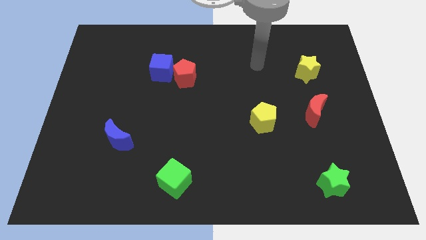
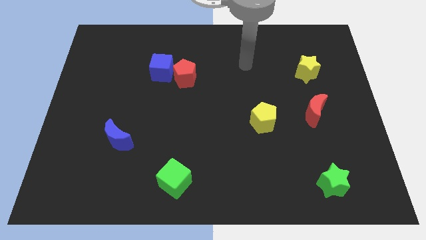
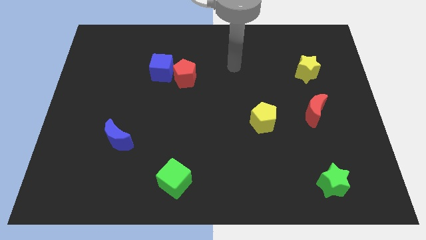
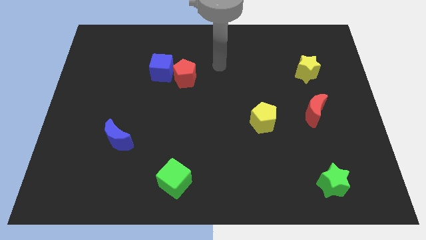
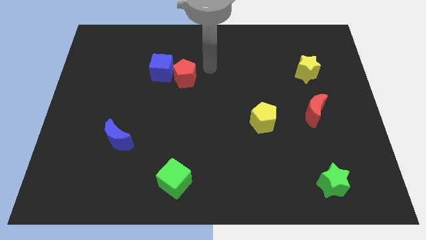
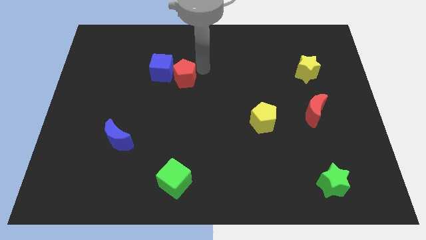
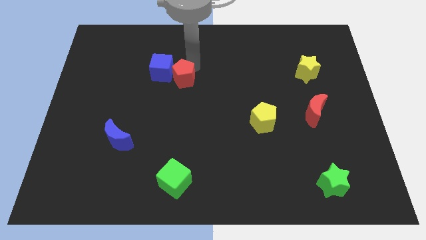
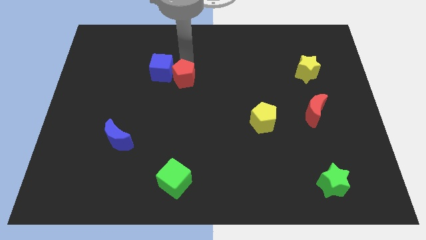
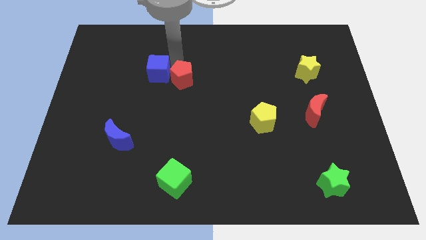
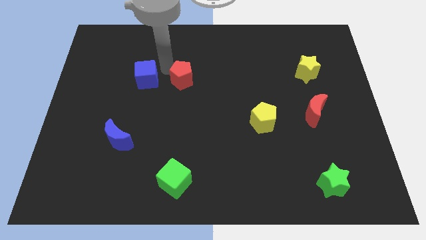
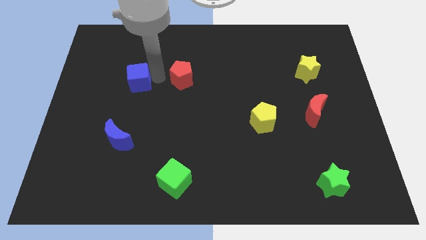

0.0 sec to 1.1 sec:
pull the red pentagon apart from the blue cube

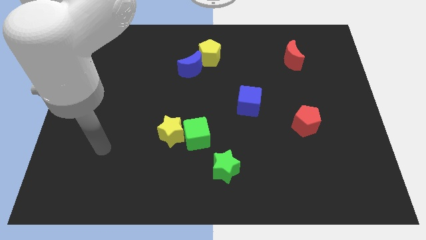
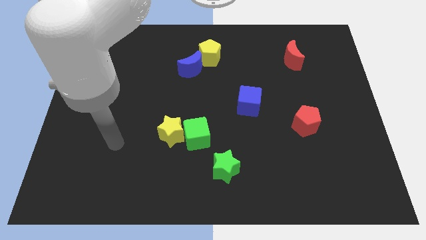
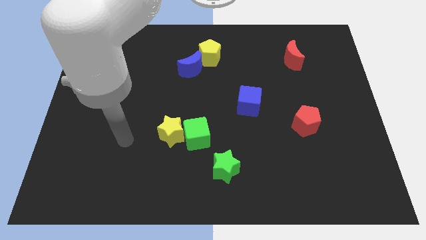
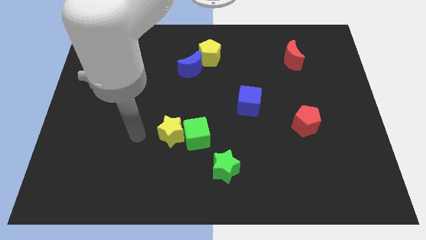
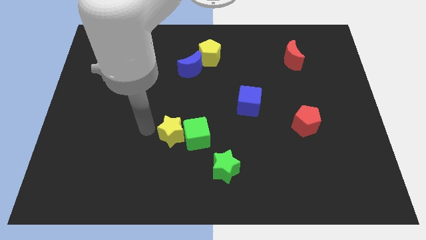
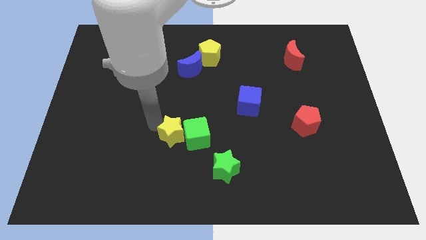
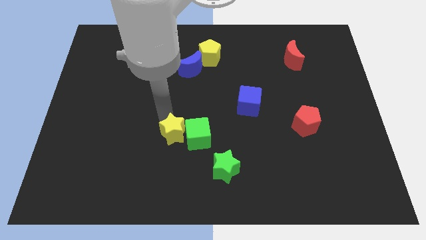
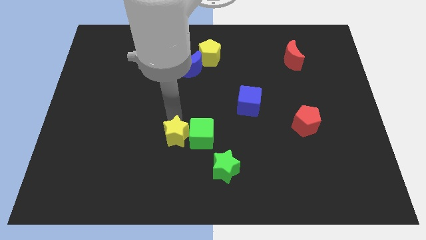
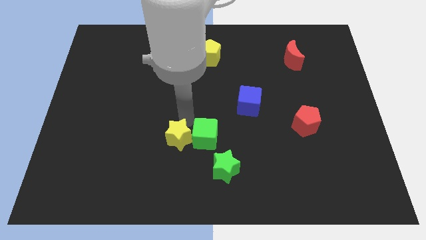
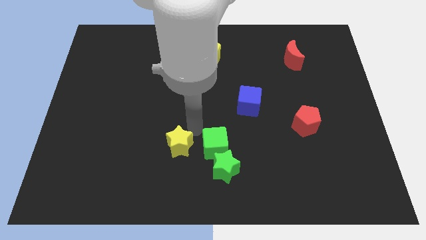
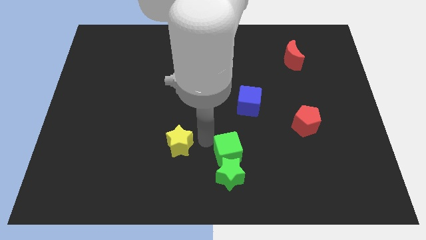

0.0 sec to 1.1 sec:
pull the yellow star apart from the green cube

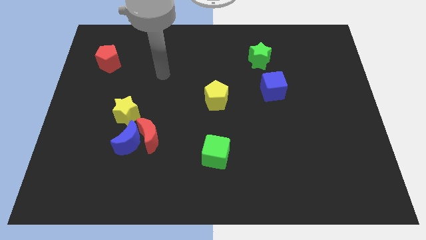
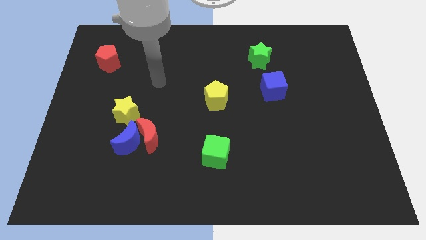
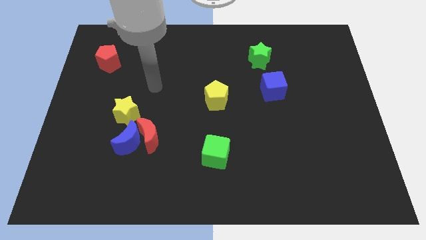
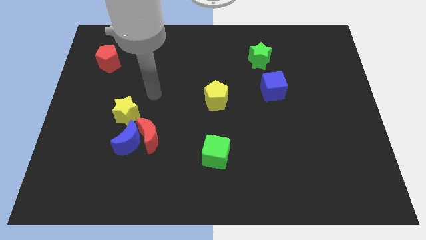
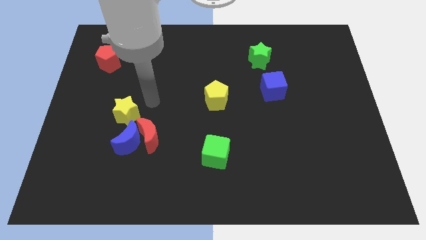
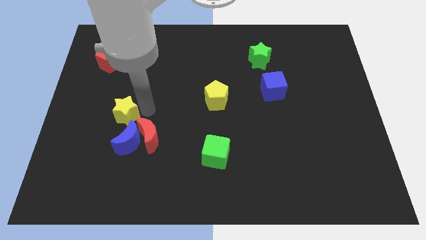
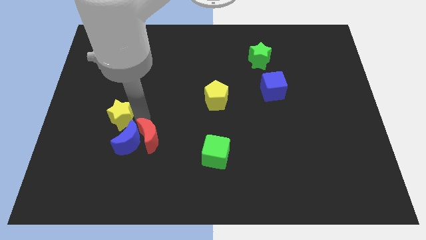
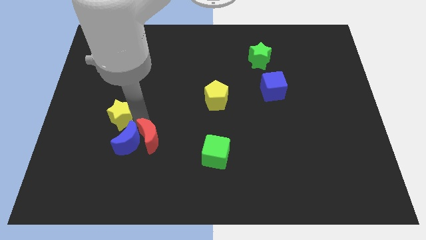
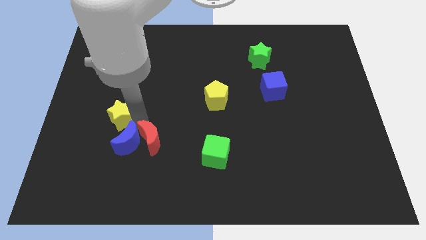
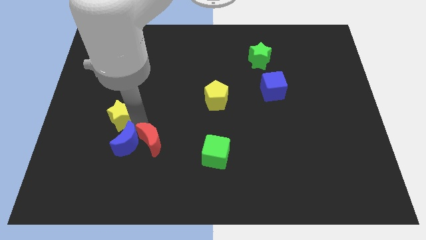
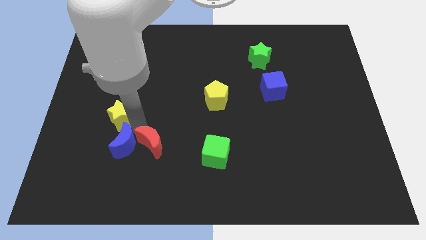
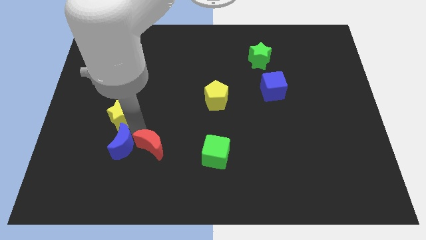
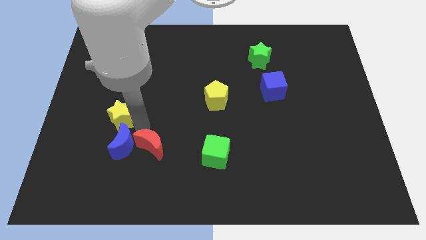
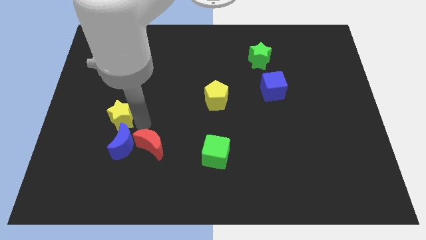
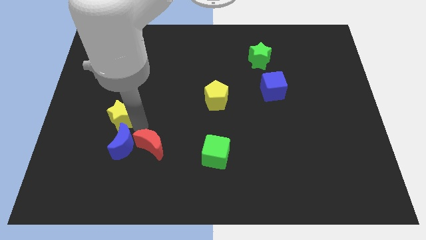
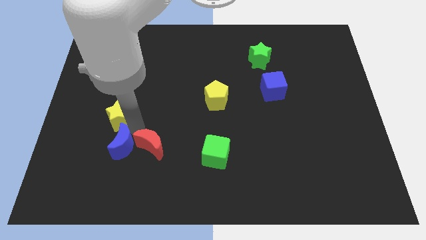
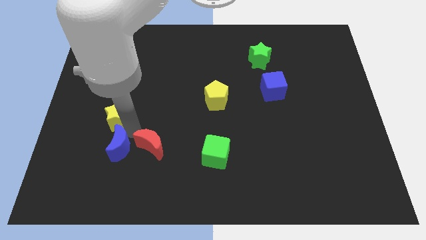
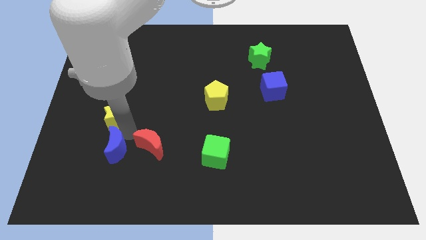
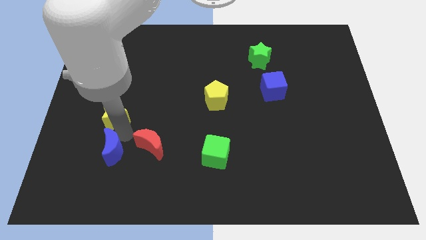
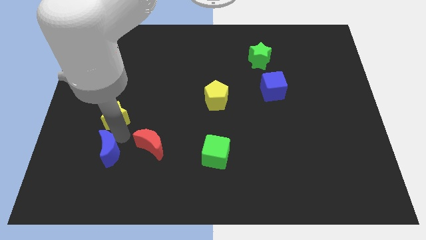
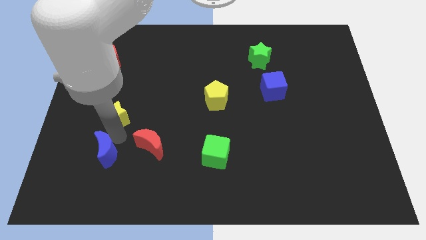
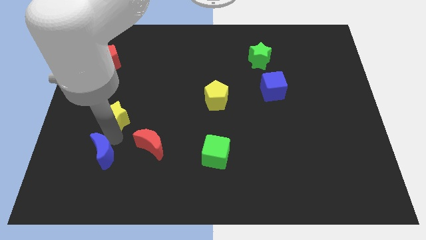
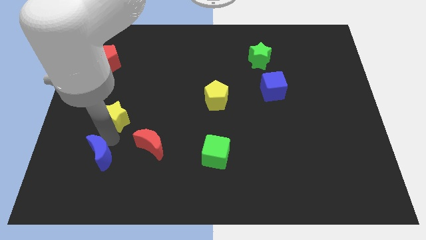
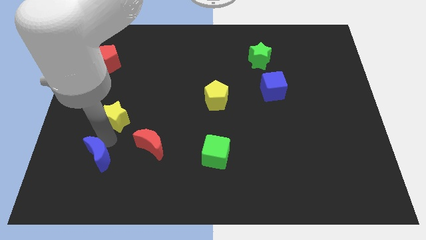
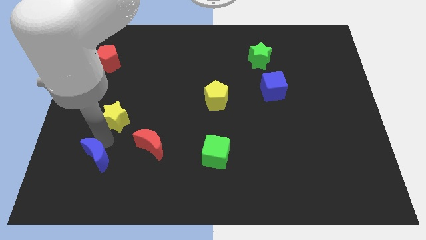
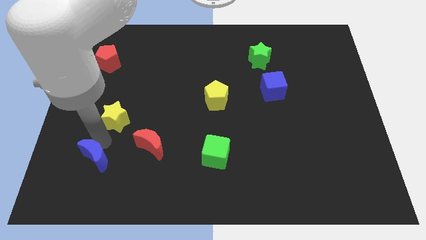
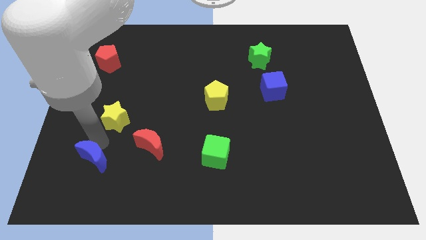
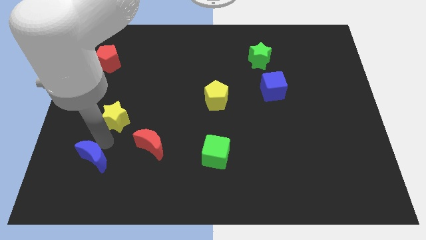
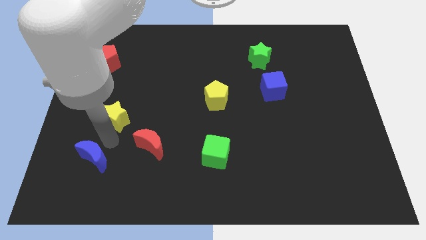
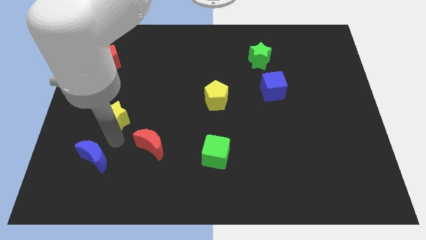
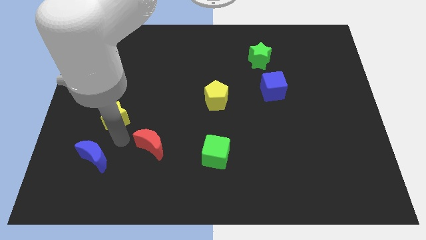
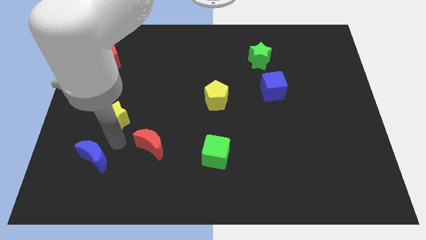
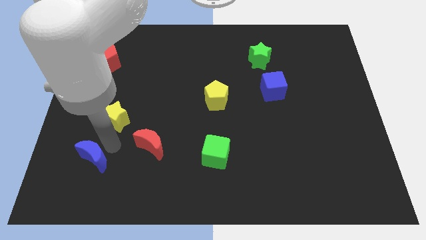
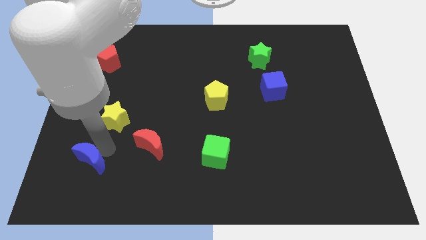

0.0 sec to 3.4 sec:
move the blue moon away from the red moon and yellow star

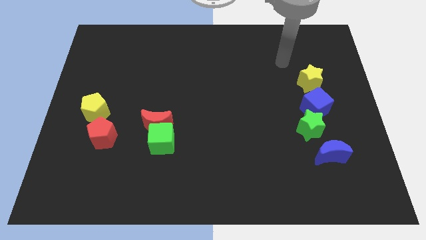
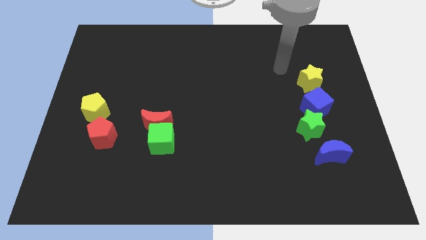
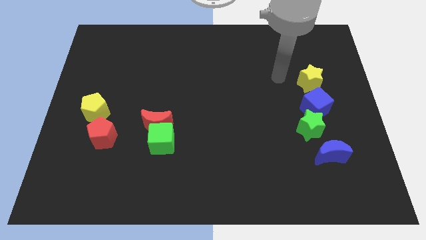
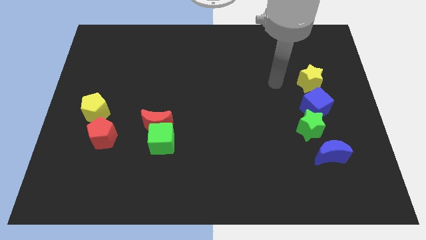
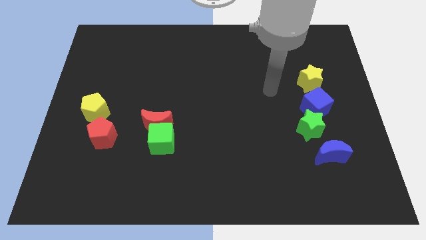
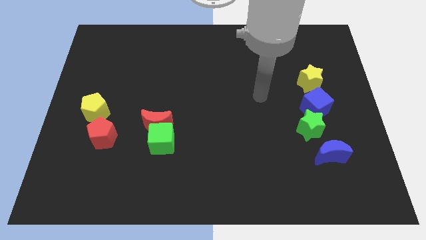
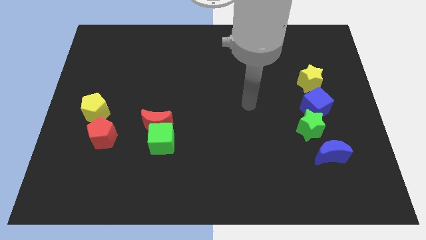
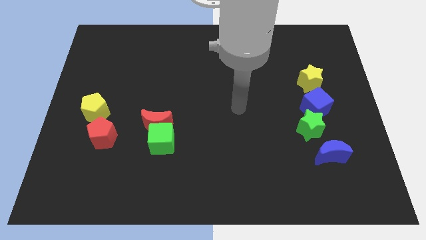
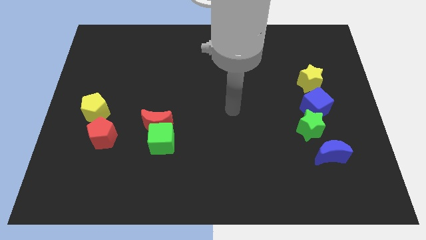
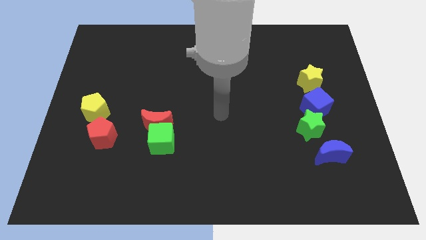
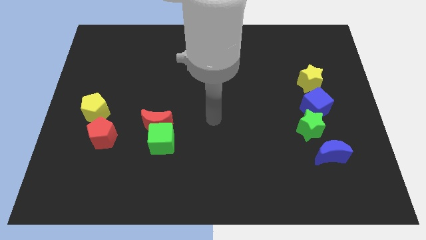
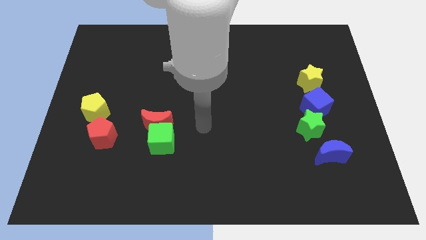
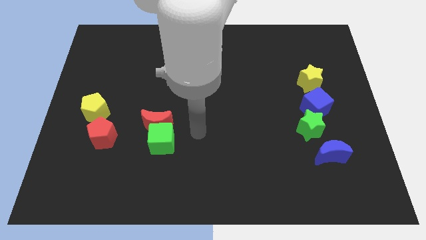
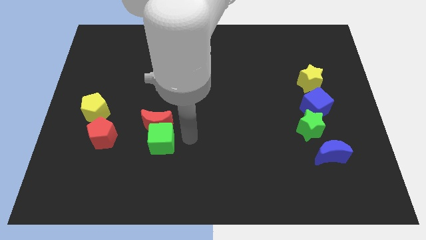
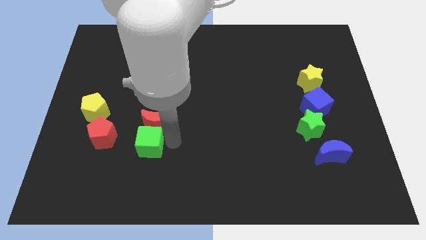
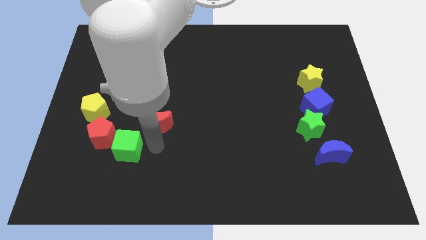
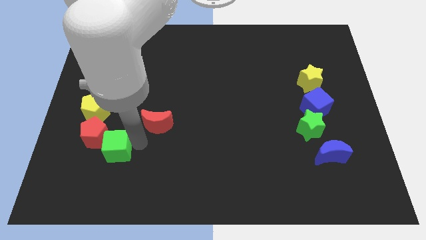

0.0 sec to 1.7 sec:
move the red moon away from the green cube

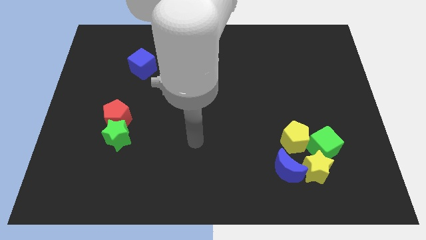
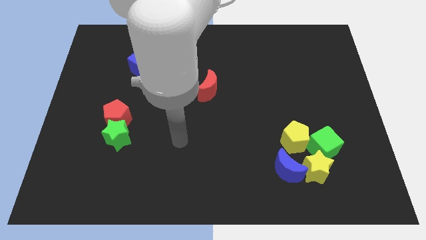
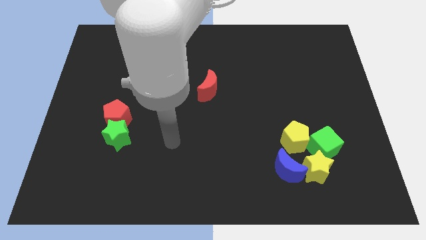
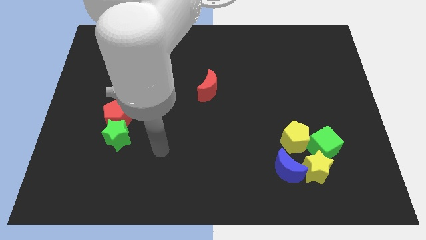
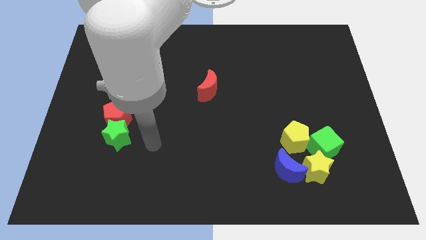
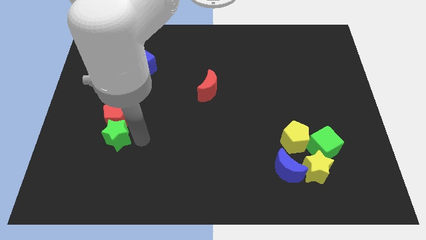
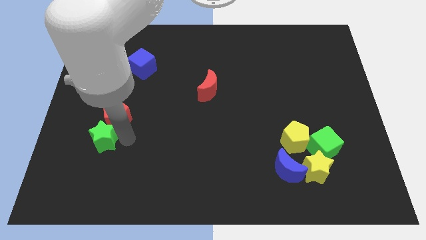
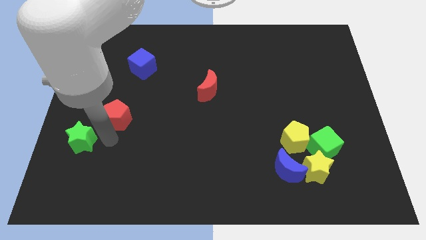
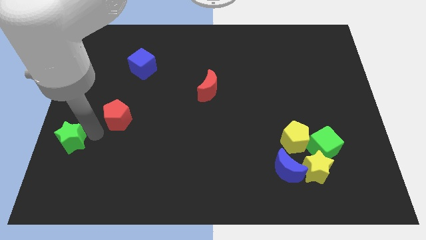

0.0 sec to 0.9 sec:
separate the red pentagon from the green star

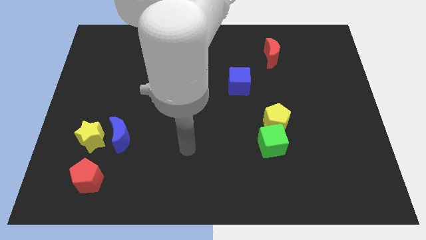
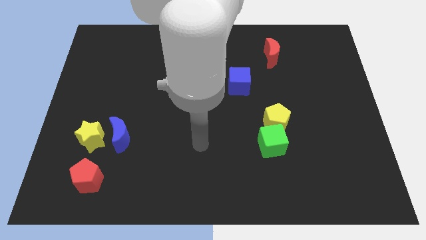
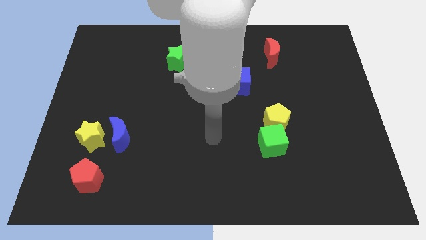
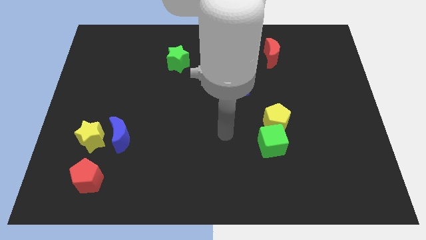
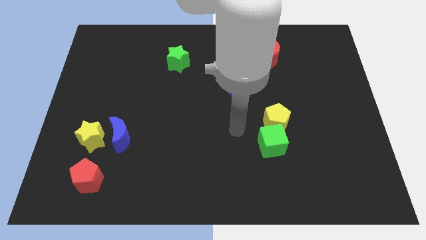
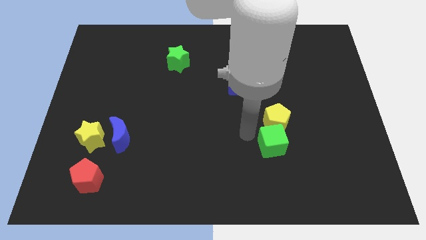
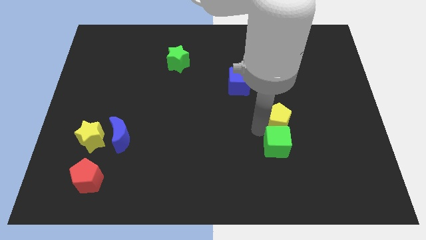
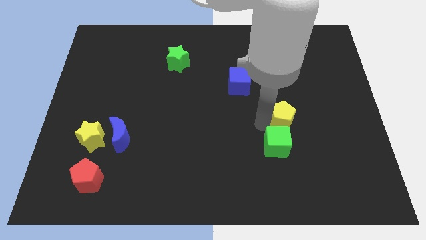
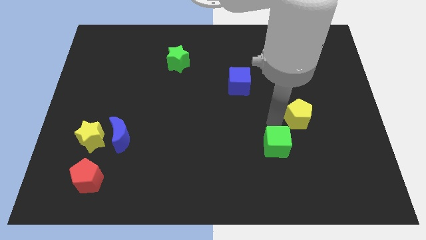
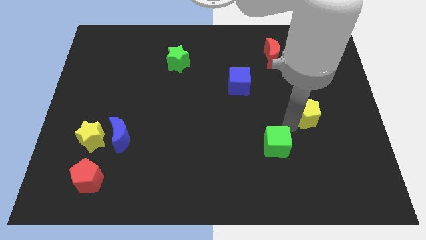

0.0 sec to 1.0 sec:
move the green cube away from the yellow pentagon

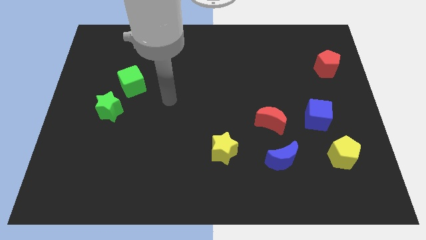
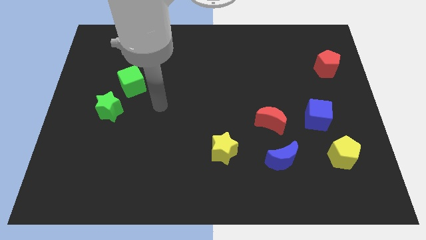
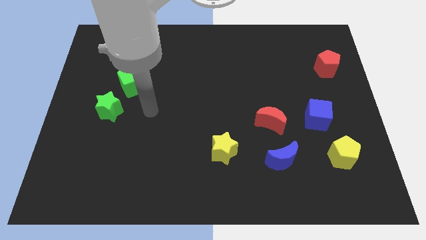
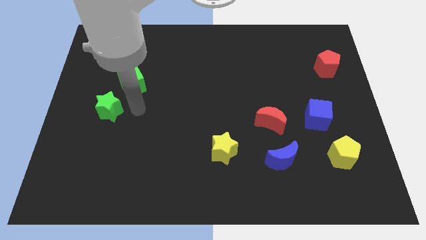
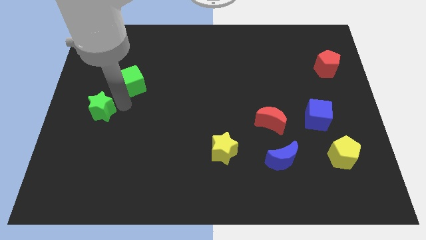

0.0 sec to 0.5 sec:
move the green cube away from the green star
